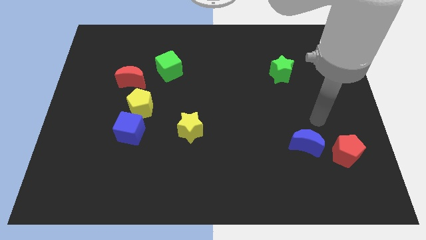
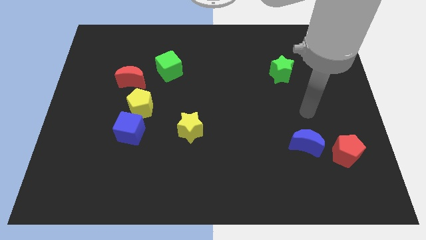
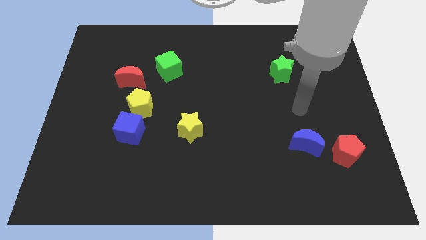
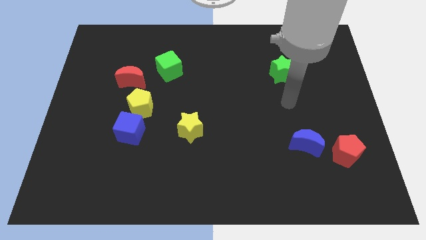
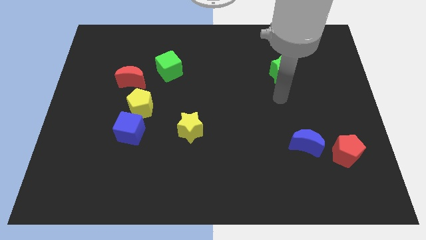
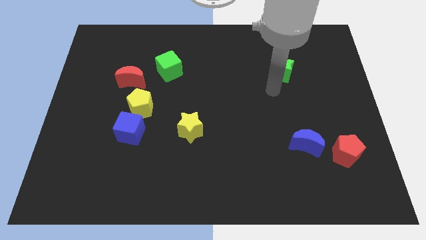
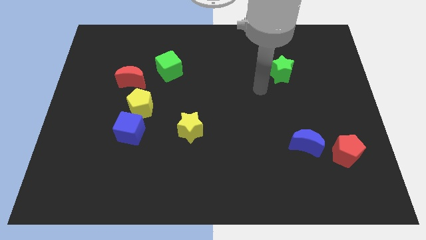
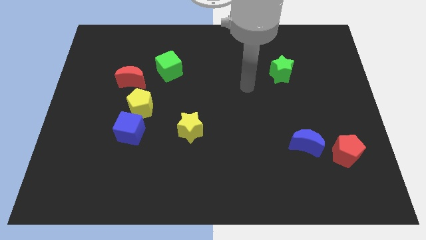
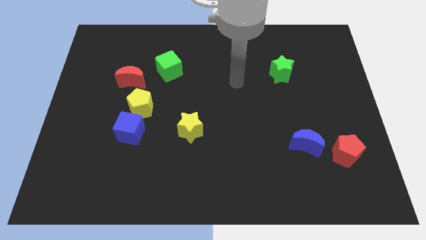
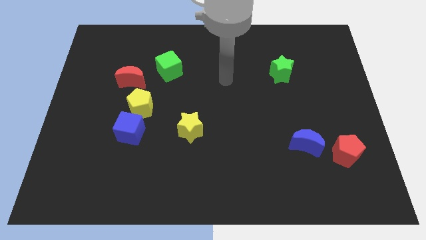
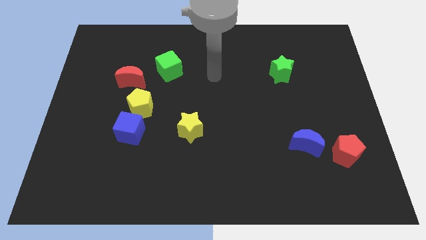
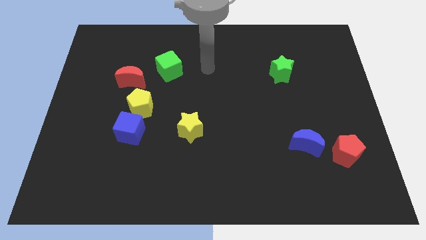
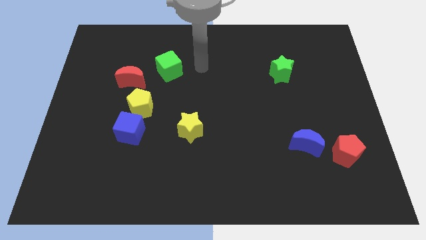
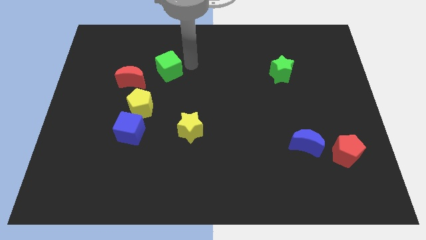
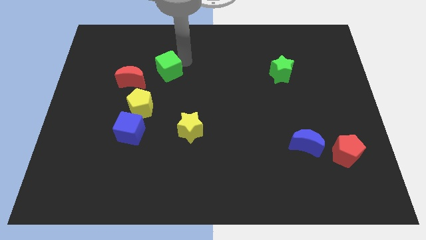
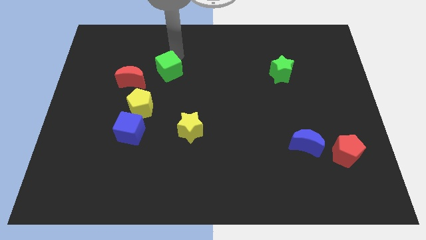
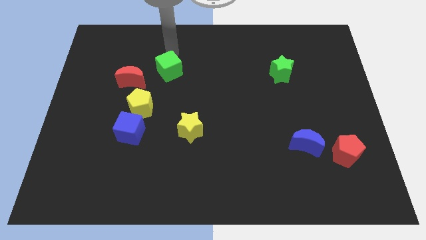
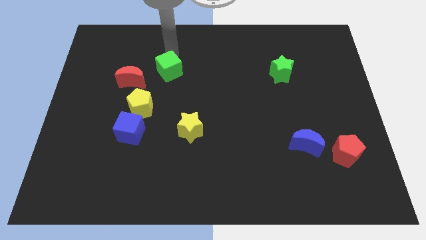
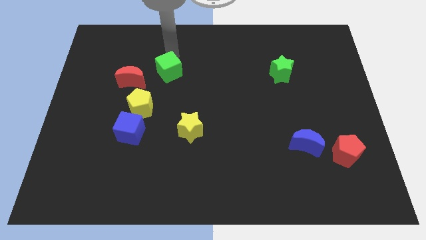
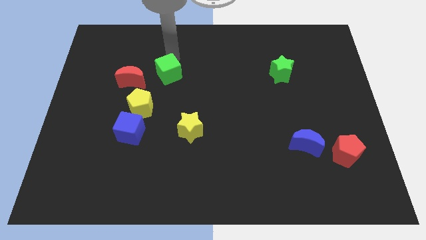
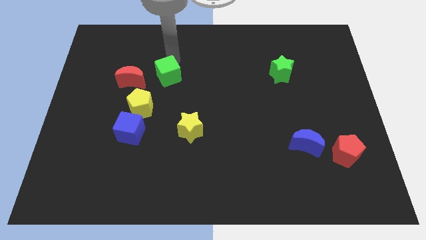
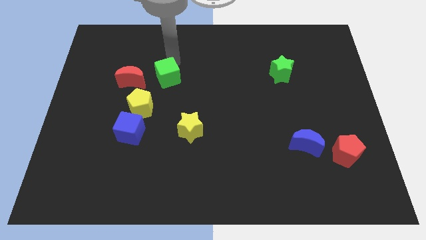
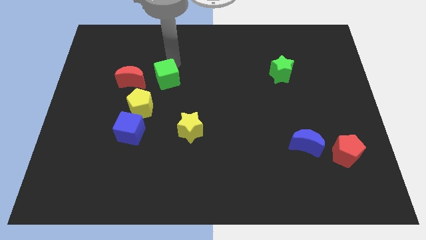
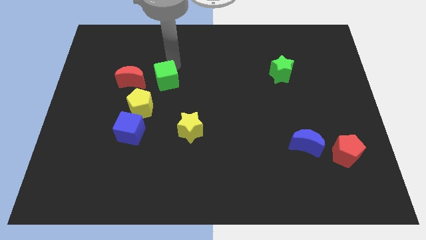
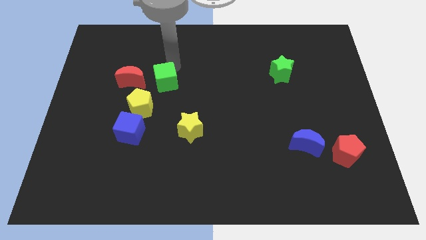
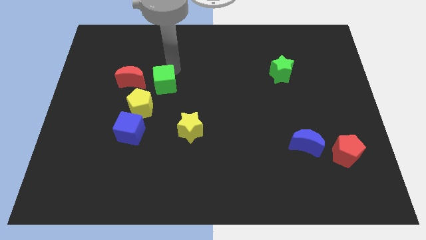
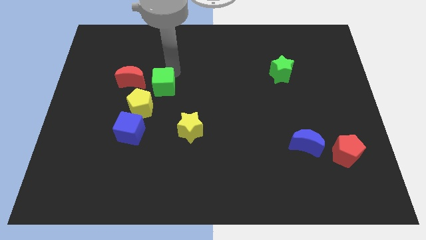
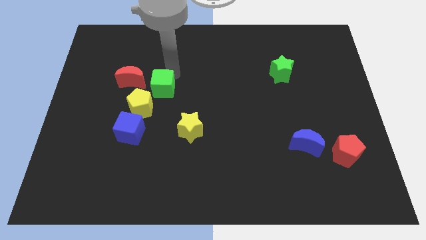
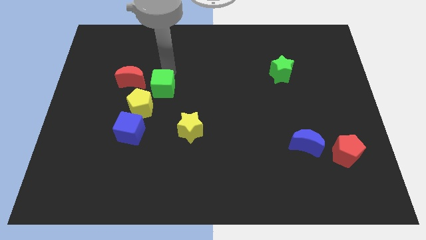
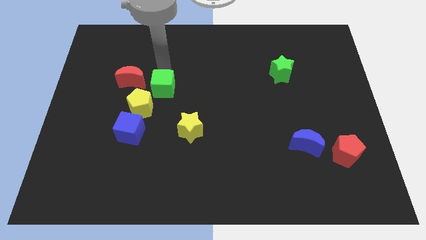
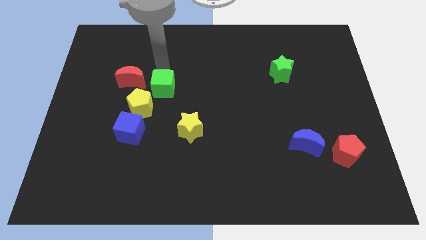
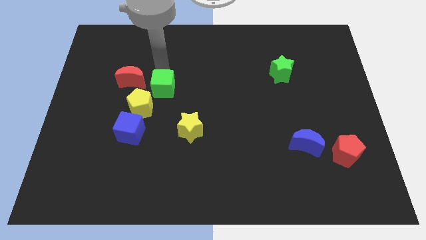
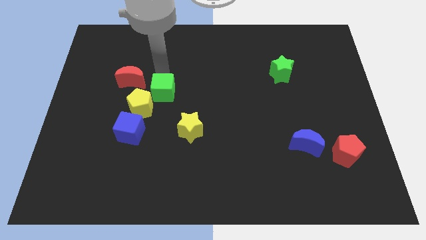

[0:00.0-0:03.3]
slide the green cube downwards a little

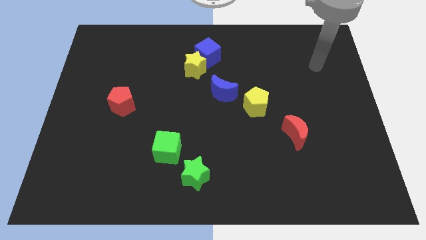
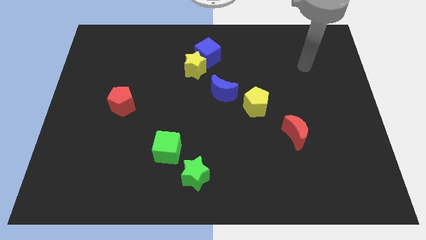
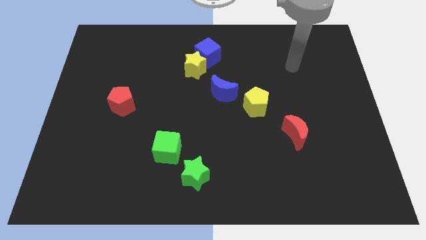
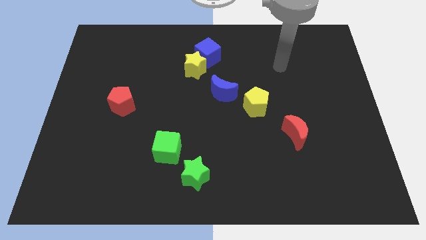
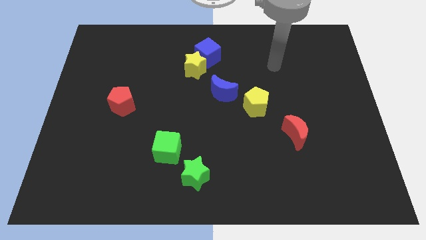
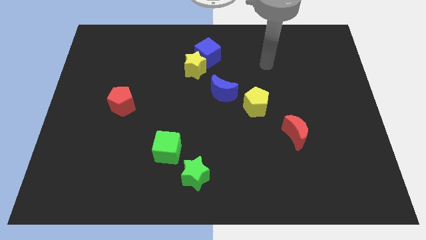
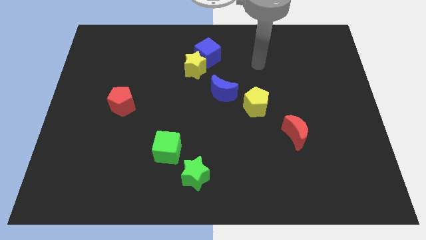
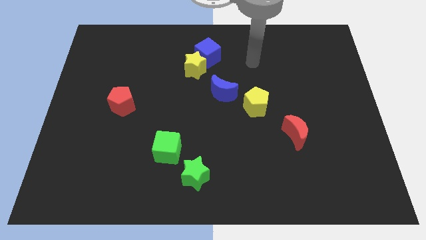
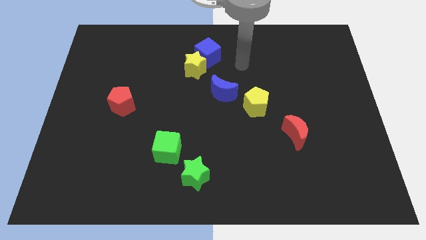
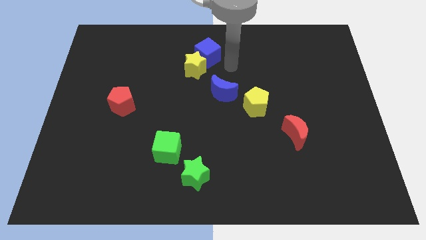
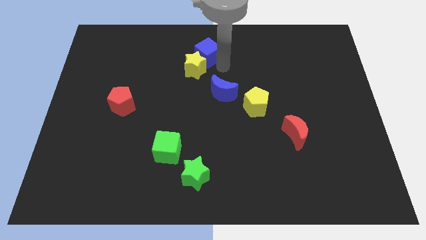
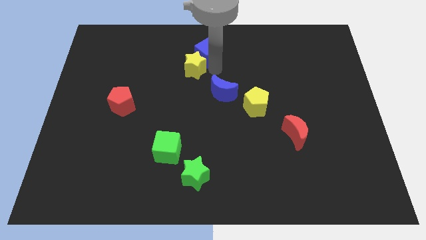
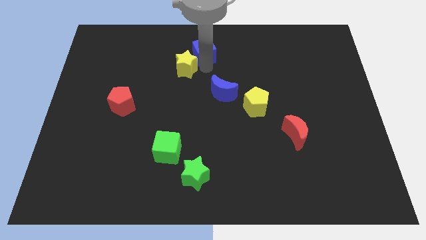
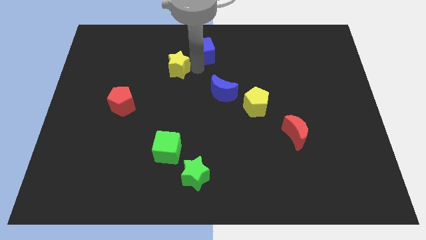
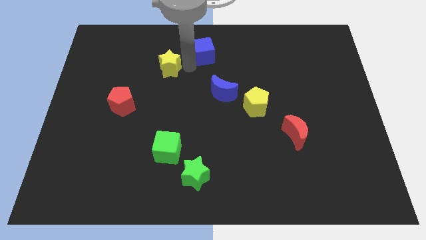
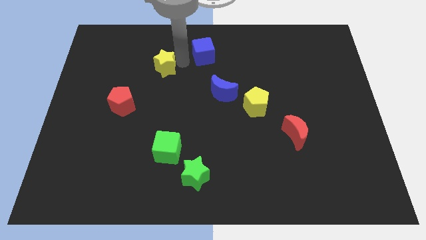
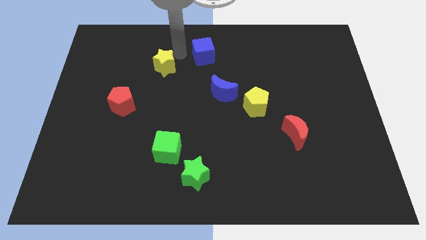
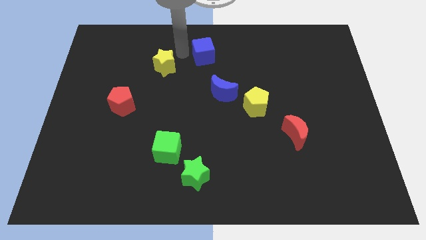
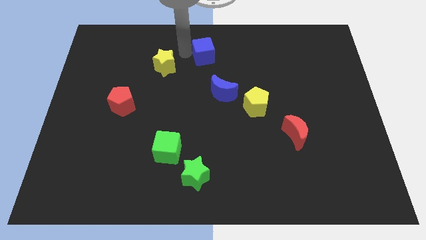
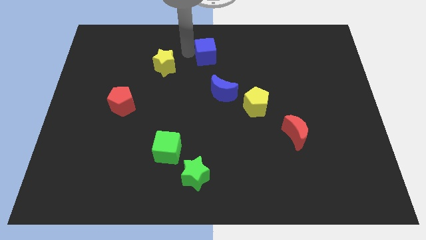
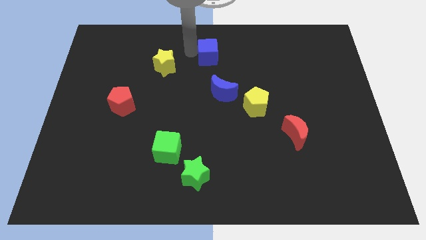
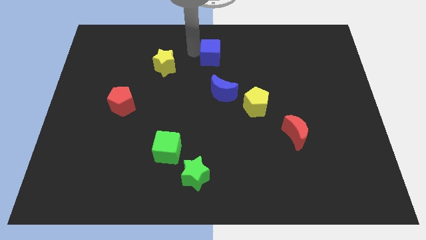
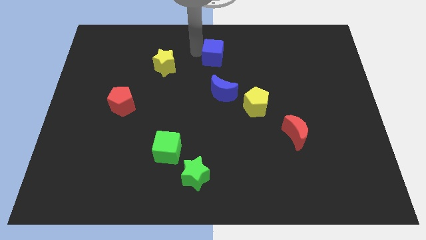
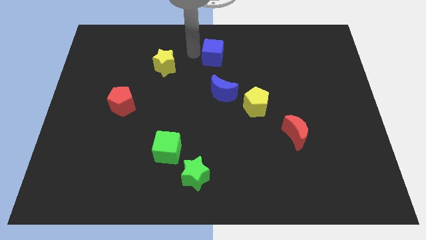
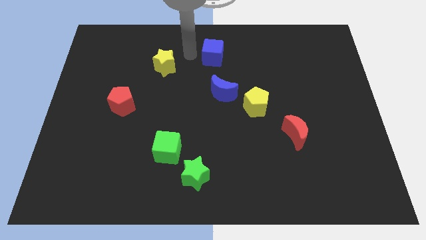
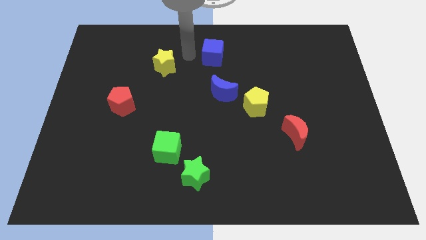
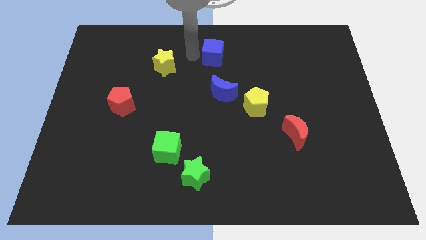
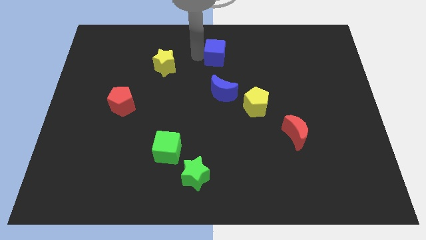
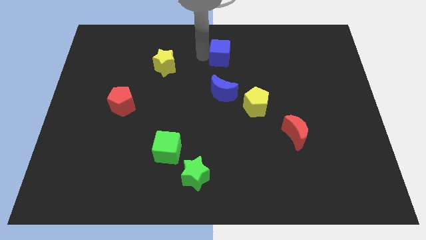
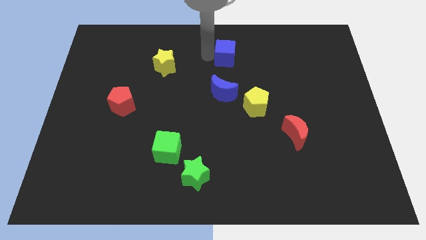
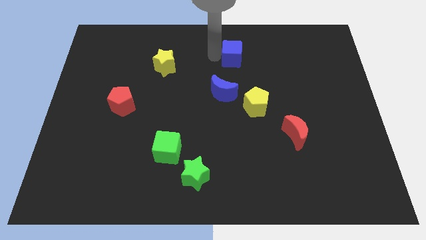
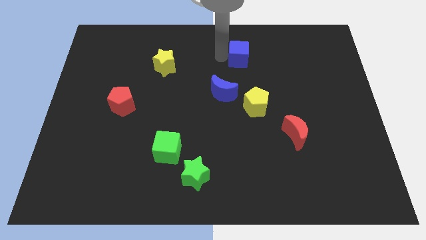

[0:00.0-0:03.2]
slightly push the blue cube to the right

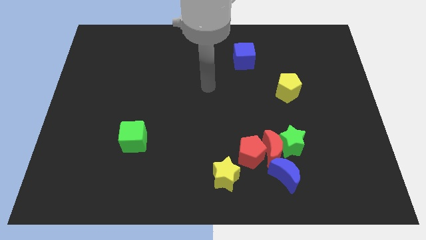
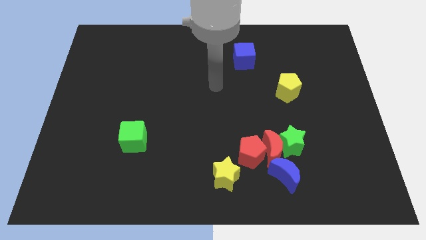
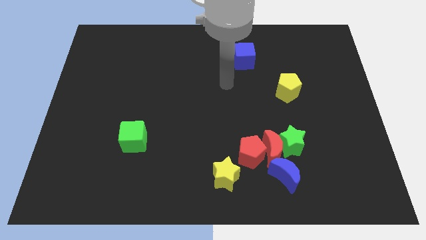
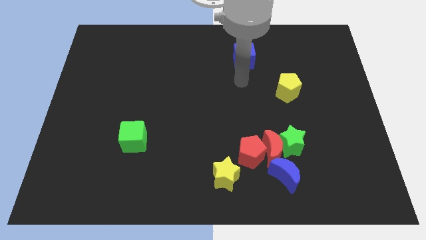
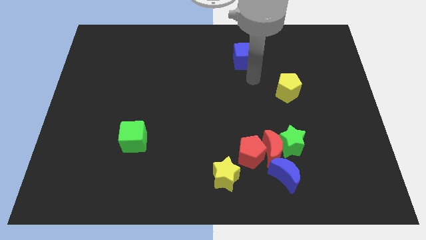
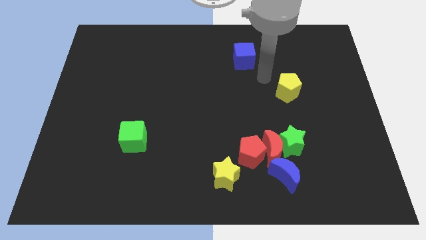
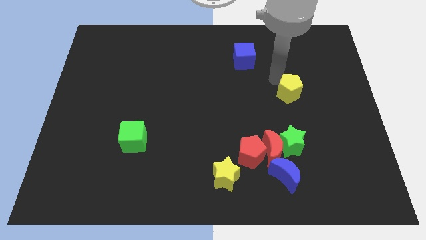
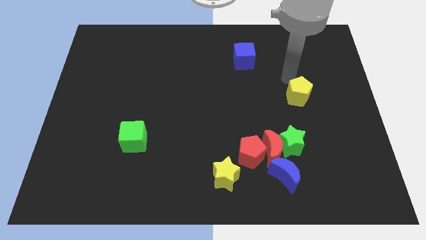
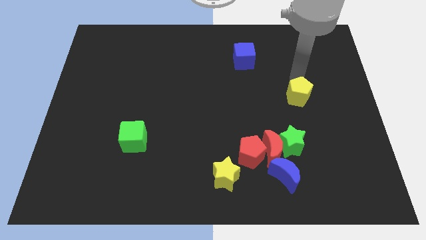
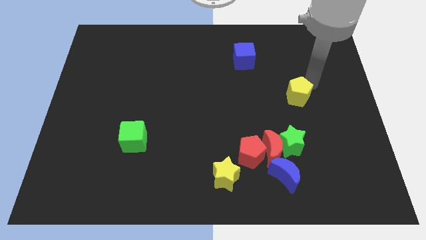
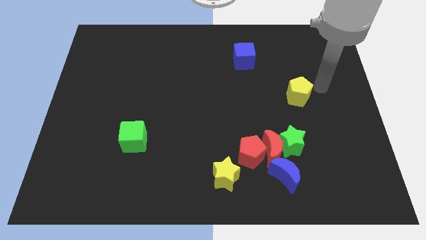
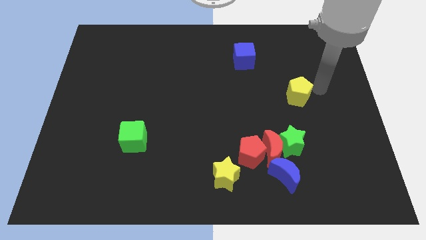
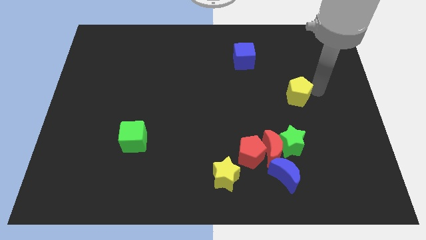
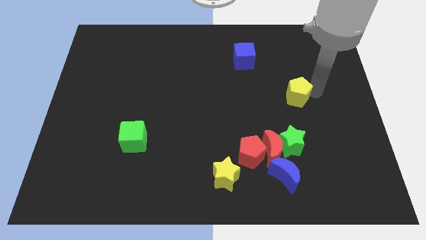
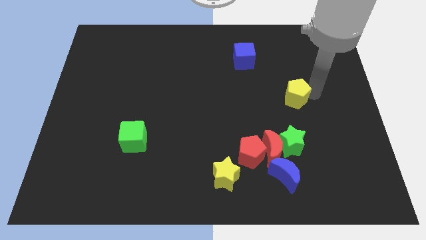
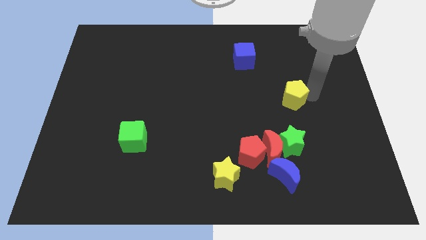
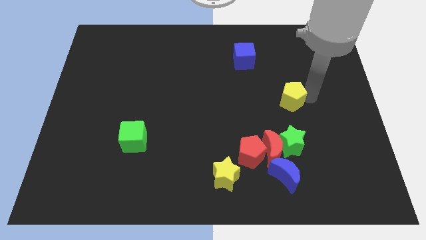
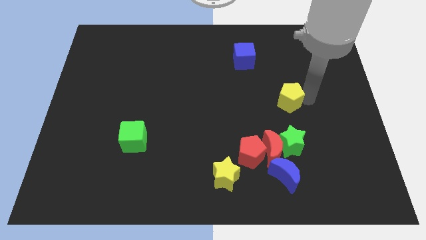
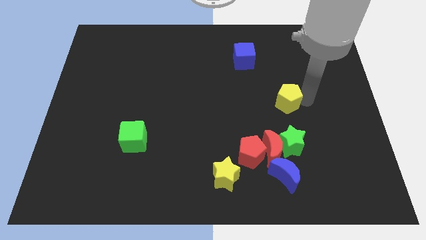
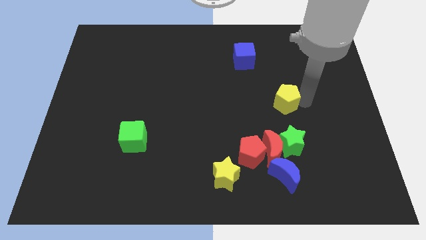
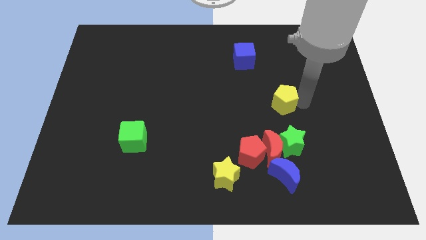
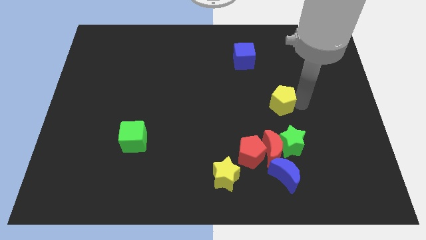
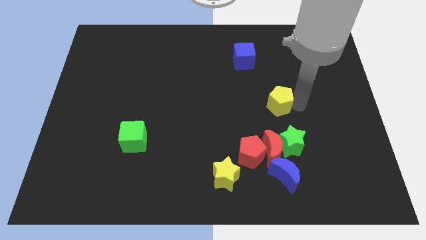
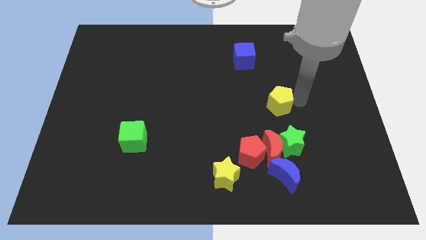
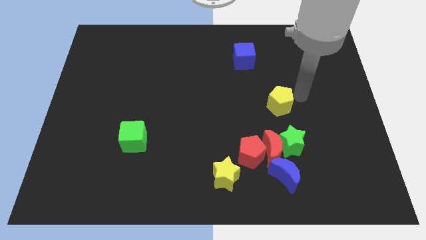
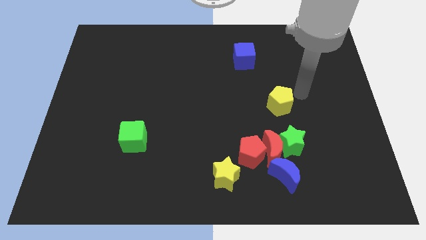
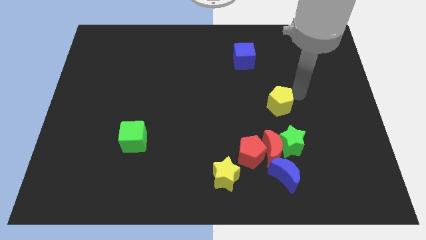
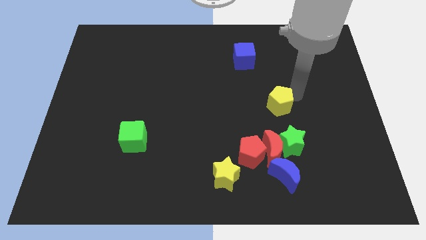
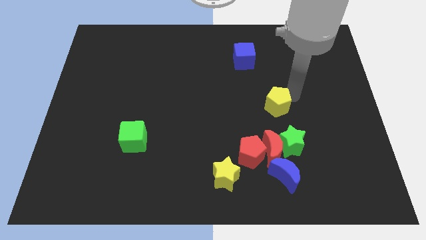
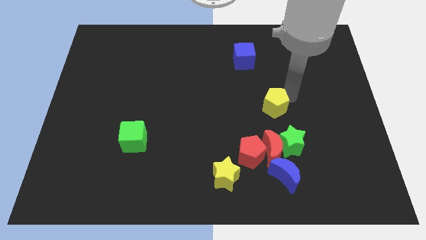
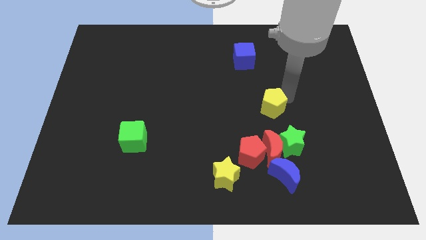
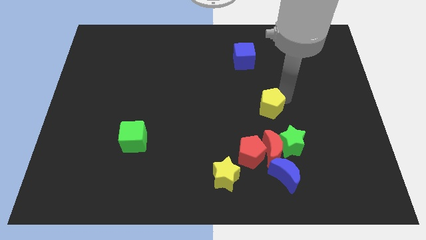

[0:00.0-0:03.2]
push the yellow pentagon down and to the left a little bit
